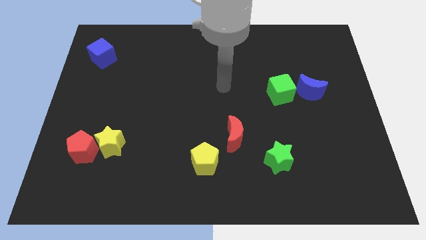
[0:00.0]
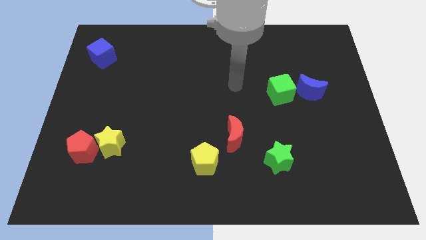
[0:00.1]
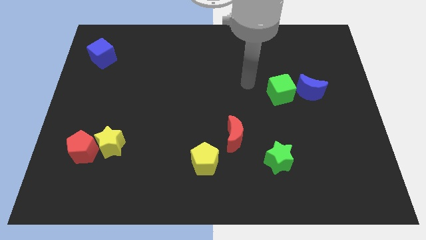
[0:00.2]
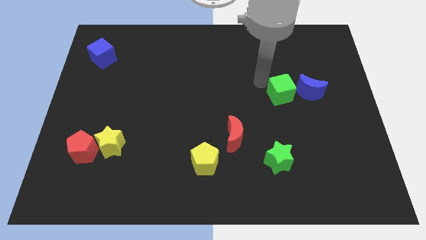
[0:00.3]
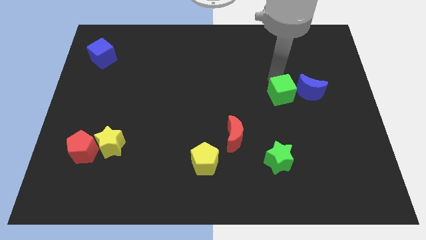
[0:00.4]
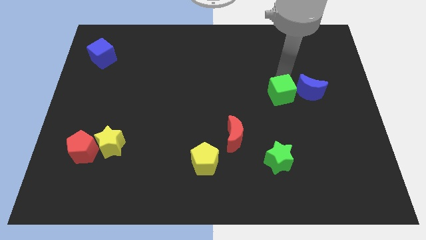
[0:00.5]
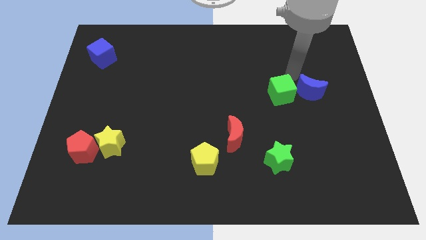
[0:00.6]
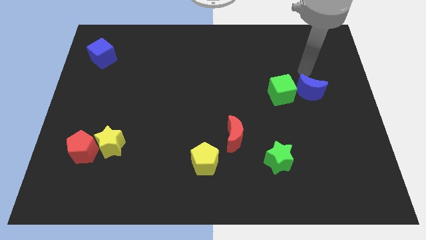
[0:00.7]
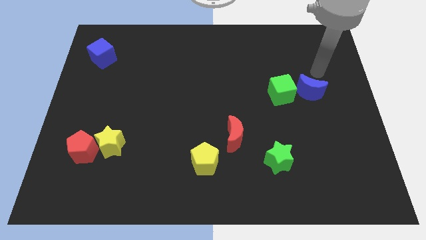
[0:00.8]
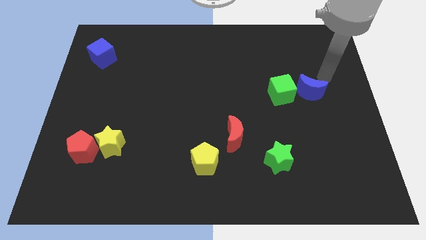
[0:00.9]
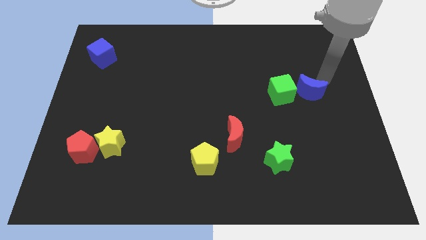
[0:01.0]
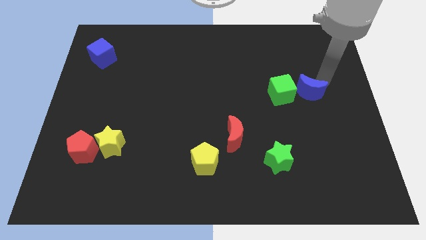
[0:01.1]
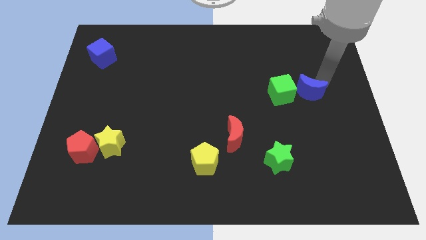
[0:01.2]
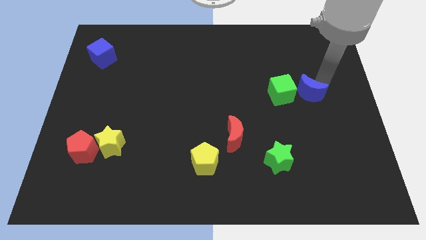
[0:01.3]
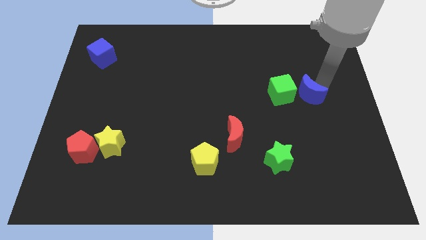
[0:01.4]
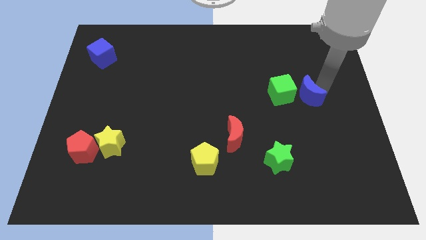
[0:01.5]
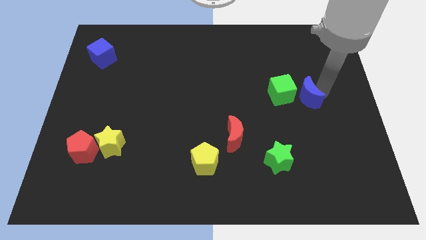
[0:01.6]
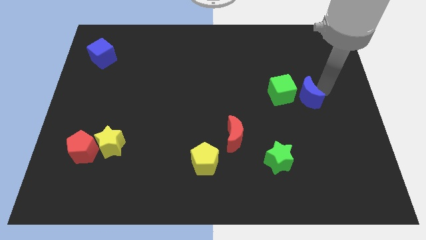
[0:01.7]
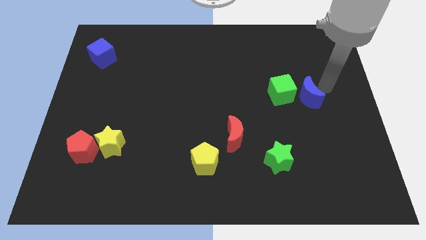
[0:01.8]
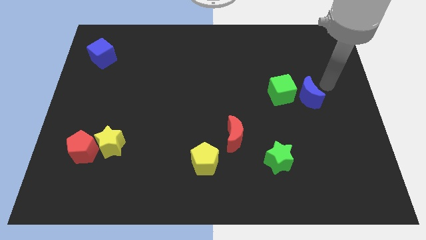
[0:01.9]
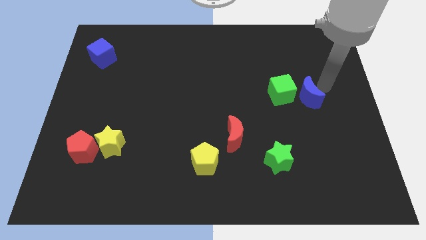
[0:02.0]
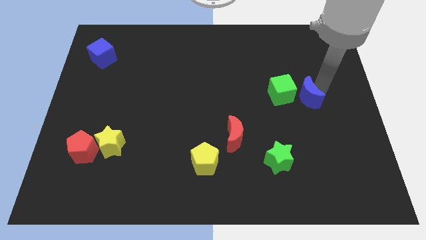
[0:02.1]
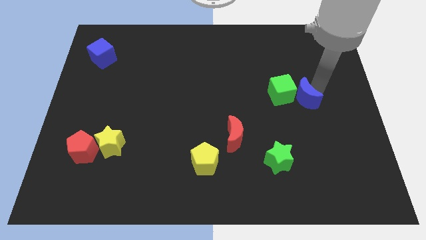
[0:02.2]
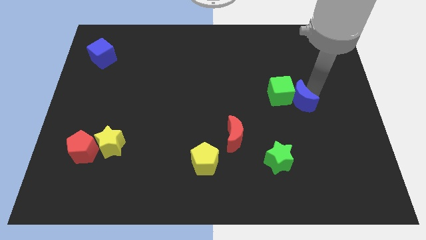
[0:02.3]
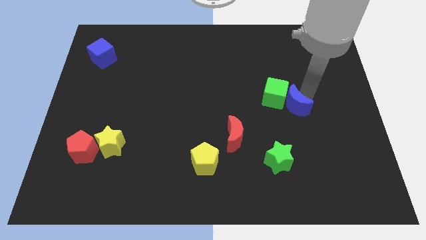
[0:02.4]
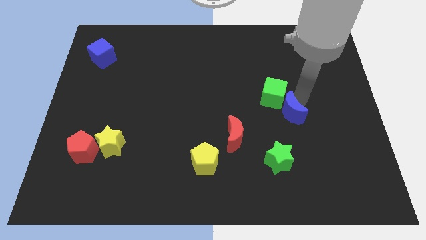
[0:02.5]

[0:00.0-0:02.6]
slightly move the blue moon downwards and left diagonally

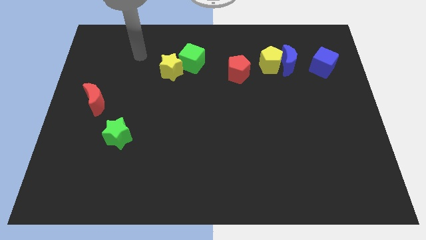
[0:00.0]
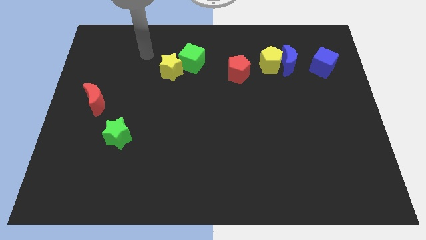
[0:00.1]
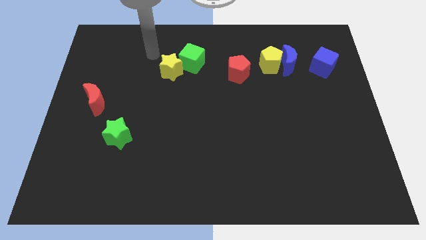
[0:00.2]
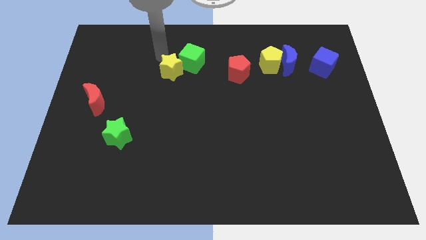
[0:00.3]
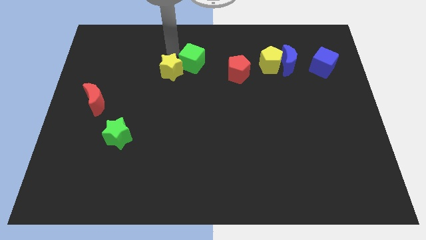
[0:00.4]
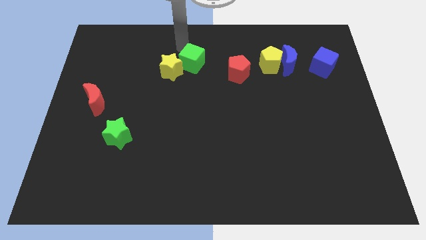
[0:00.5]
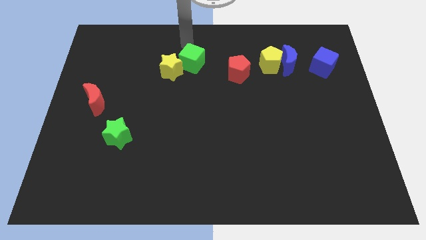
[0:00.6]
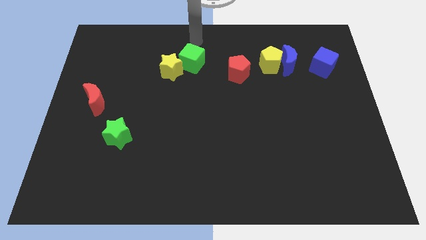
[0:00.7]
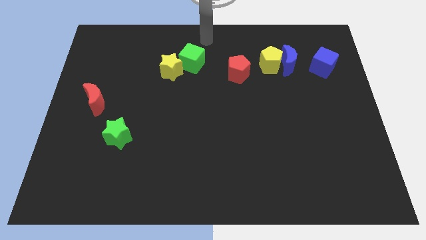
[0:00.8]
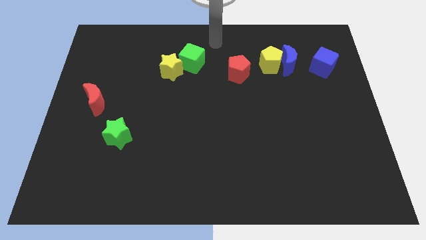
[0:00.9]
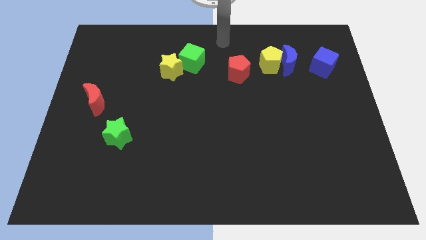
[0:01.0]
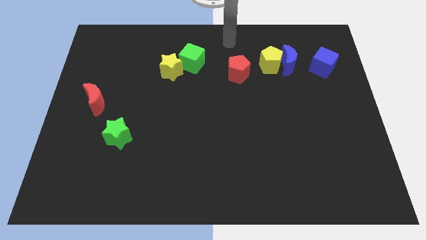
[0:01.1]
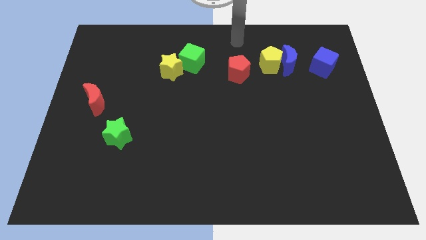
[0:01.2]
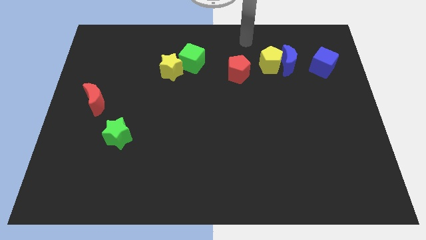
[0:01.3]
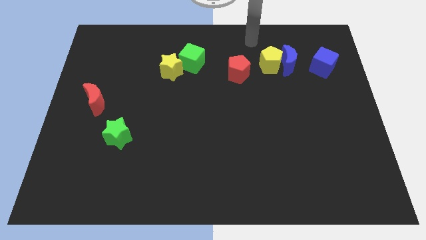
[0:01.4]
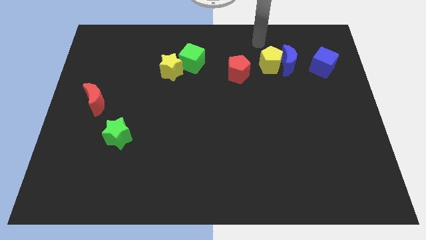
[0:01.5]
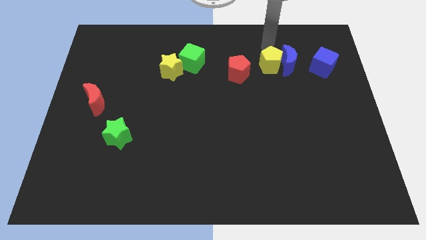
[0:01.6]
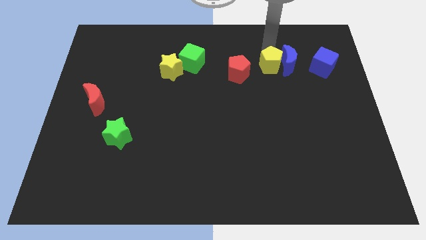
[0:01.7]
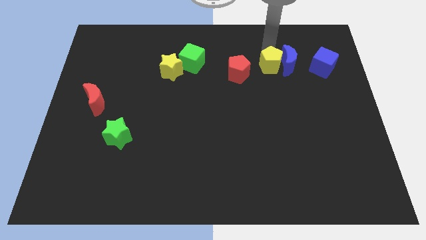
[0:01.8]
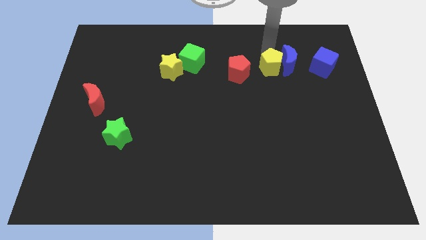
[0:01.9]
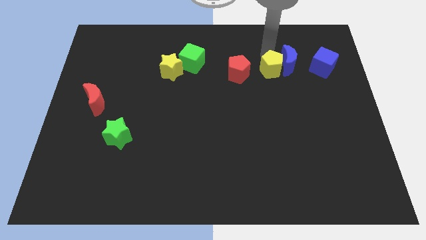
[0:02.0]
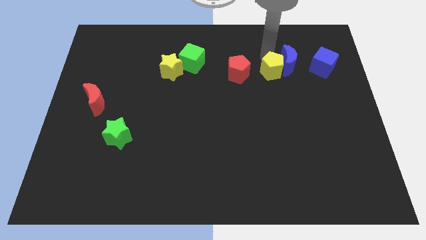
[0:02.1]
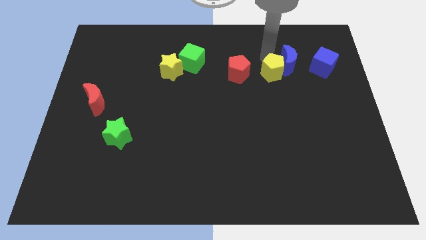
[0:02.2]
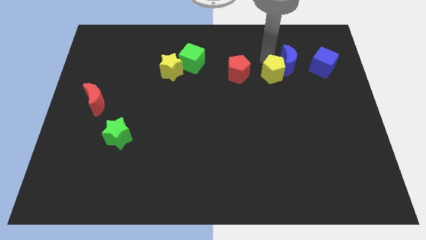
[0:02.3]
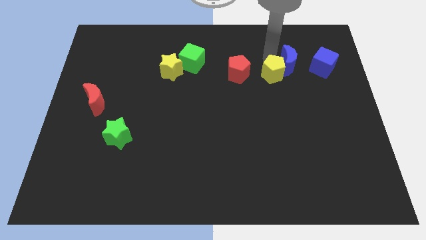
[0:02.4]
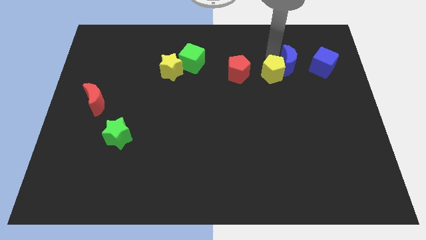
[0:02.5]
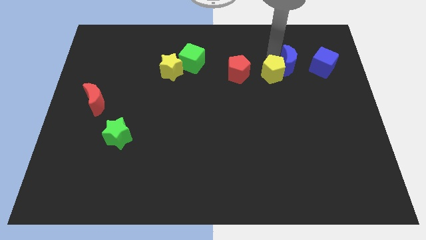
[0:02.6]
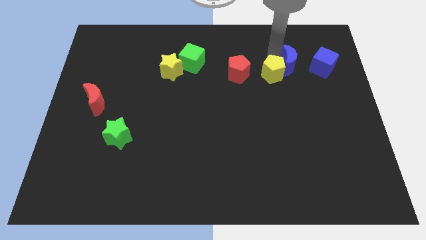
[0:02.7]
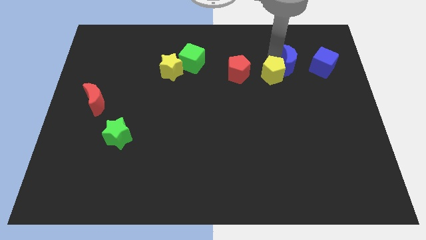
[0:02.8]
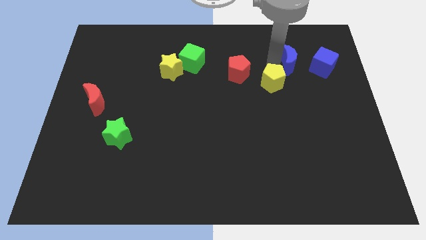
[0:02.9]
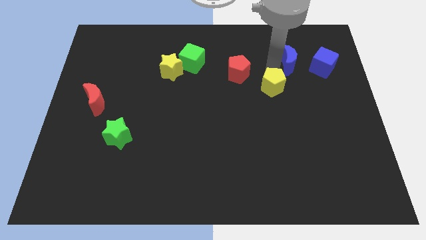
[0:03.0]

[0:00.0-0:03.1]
slide the yellow pentagon a little down

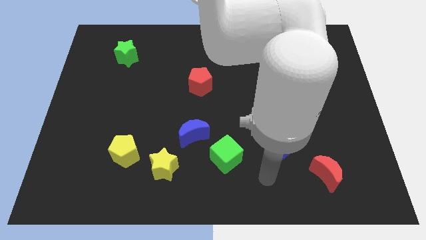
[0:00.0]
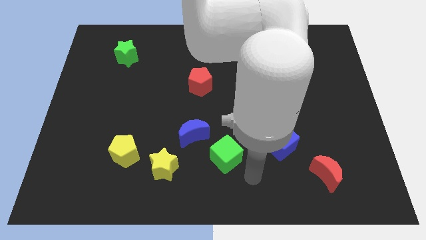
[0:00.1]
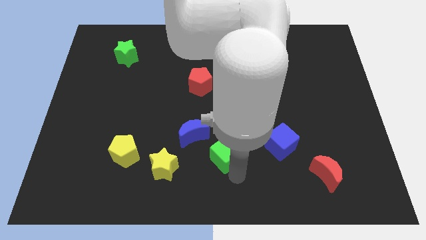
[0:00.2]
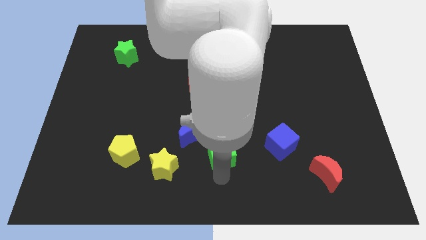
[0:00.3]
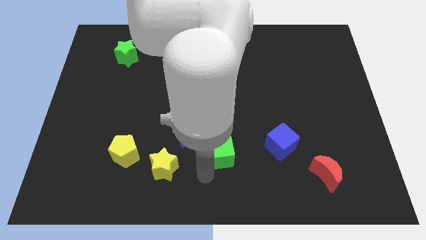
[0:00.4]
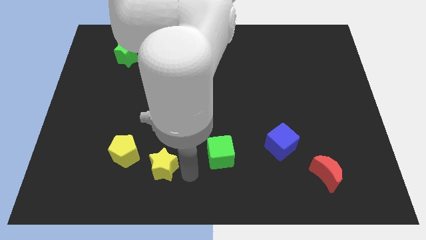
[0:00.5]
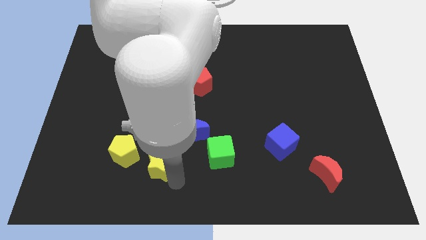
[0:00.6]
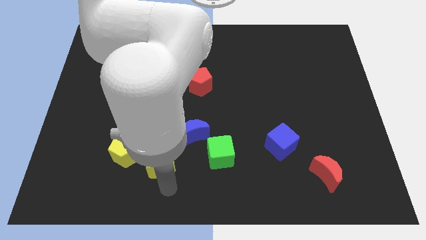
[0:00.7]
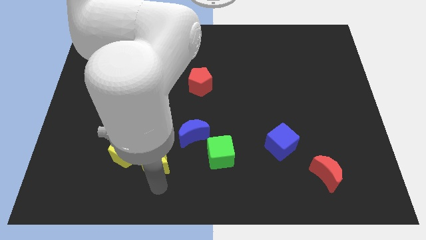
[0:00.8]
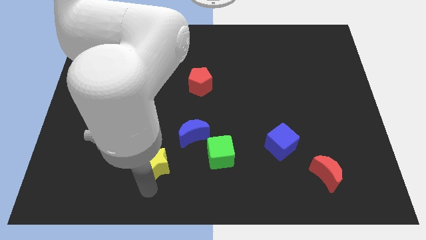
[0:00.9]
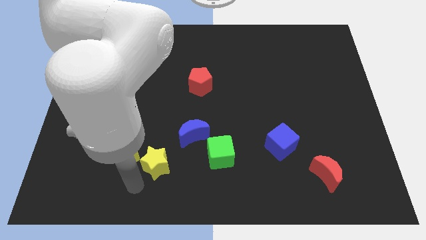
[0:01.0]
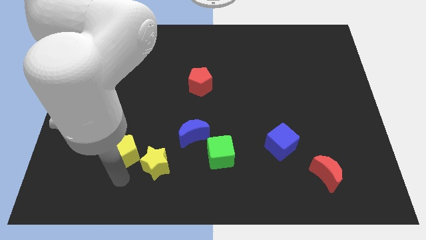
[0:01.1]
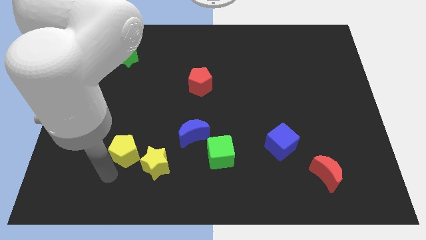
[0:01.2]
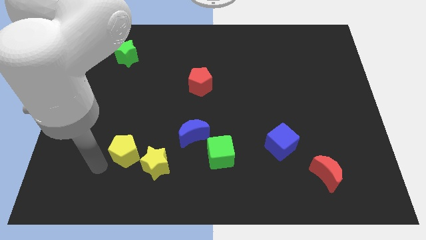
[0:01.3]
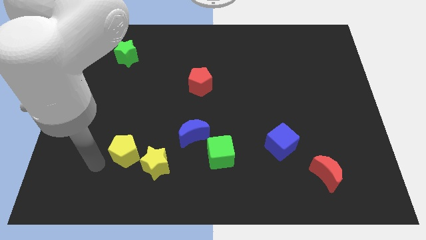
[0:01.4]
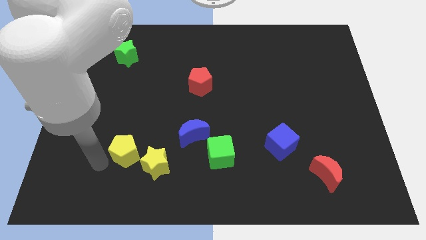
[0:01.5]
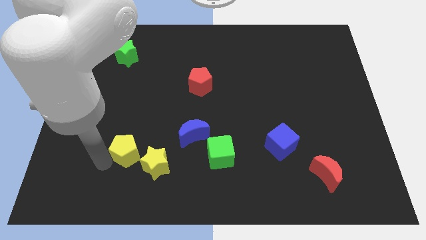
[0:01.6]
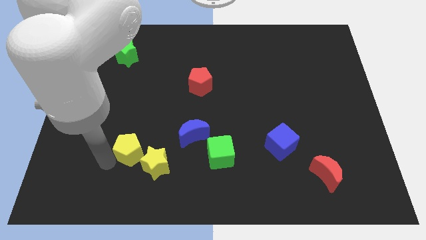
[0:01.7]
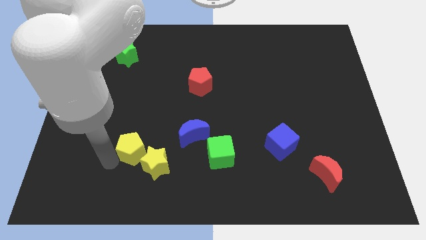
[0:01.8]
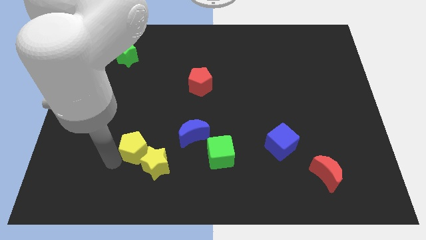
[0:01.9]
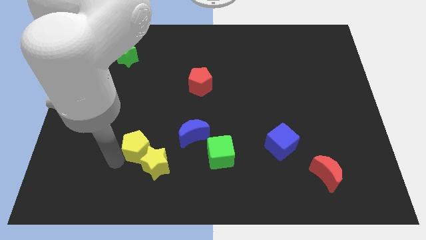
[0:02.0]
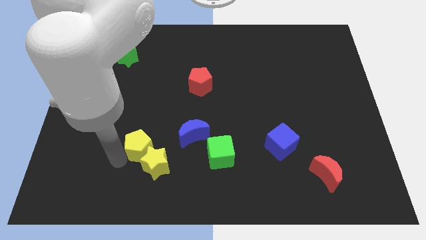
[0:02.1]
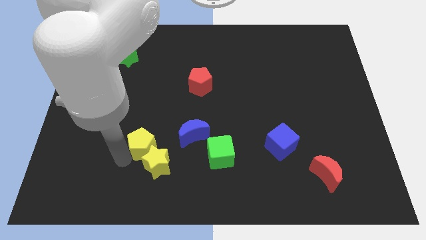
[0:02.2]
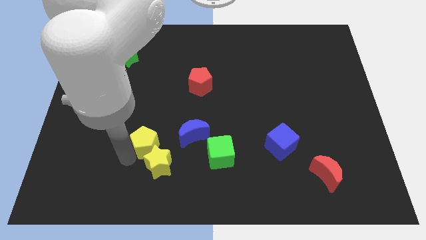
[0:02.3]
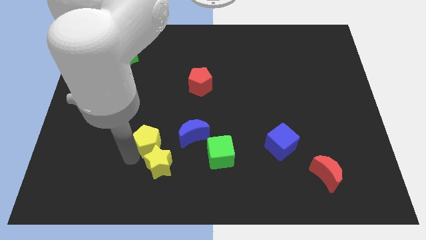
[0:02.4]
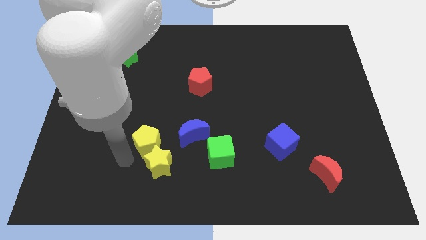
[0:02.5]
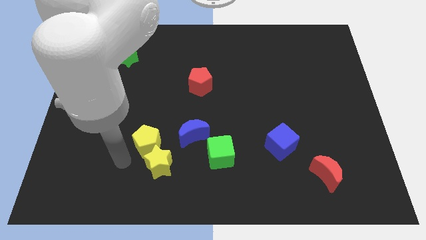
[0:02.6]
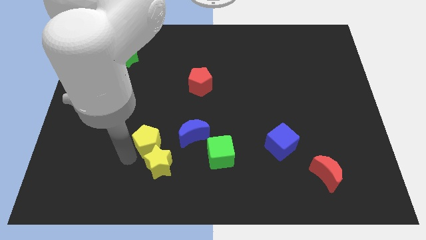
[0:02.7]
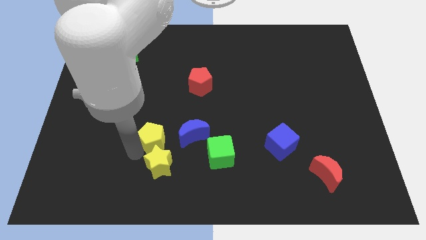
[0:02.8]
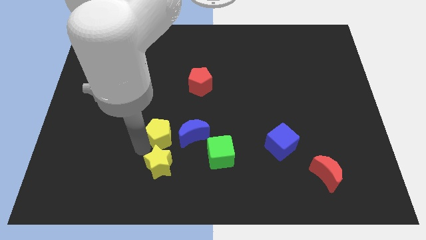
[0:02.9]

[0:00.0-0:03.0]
slightly slide the yellow pentagon upwards and right
